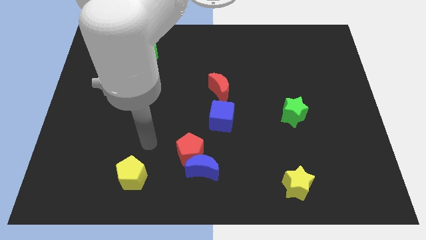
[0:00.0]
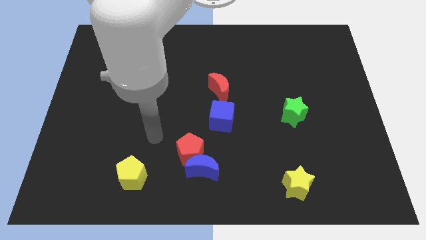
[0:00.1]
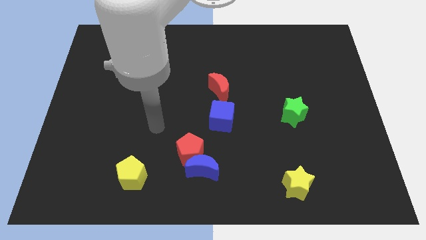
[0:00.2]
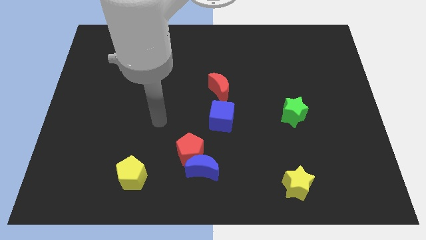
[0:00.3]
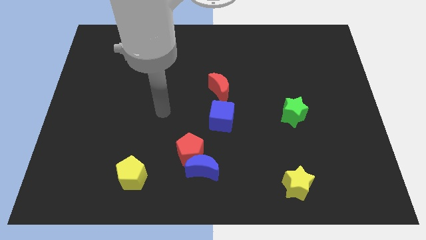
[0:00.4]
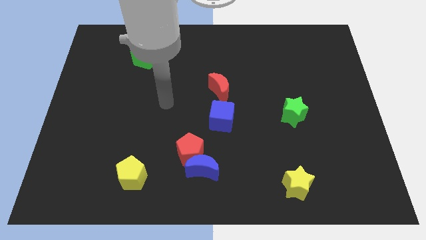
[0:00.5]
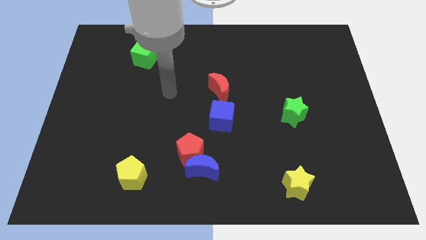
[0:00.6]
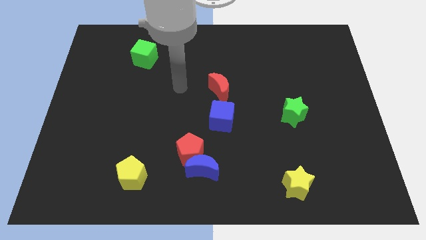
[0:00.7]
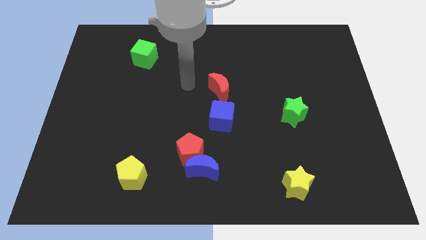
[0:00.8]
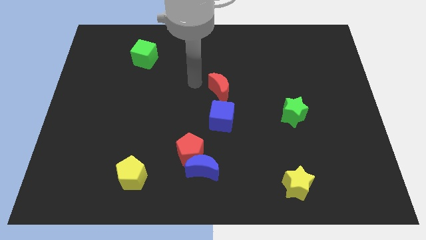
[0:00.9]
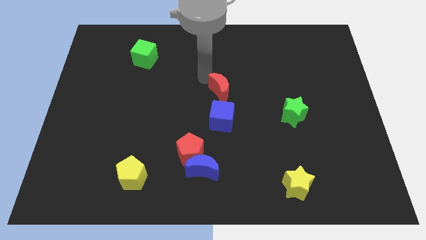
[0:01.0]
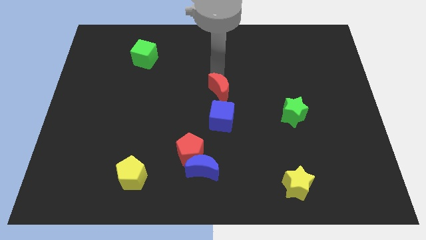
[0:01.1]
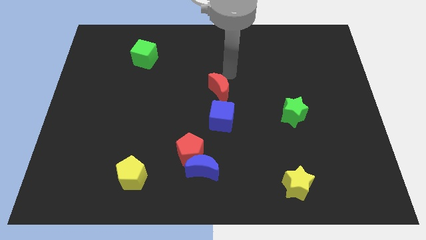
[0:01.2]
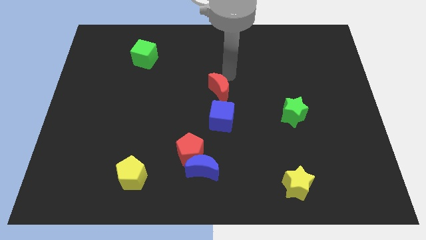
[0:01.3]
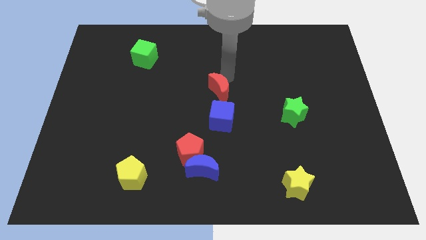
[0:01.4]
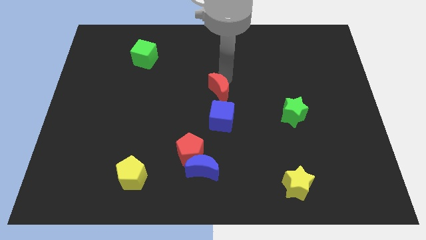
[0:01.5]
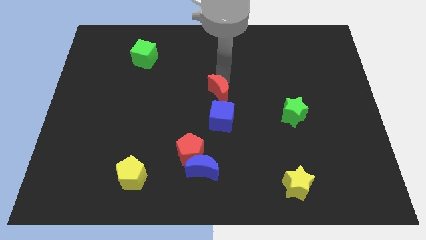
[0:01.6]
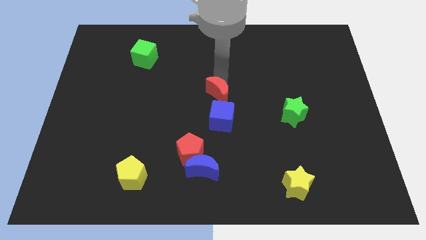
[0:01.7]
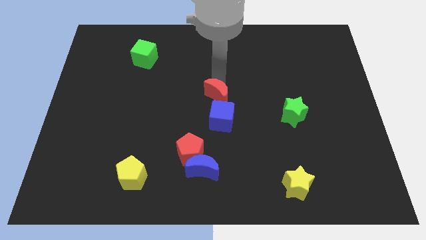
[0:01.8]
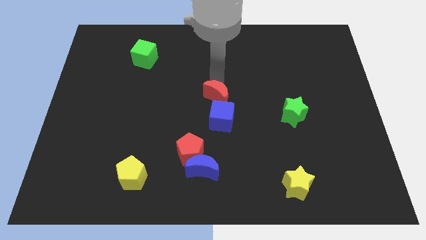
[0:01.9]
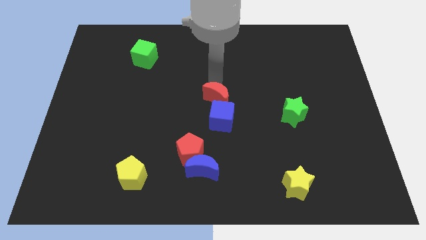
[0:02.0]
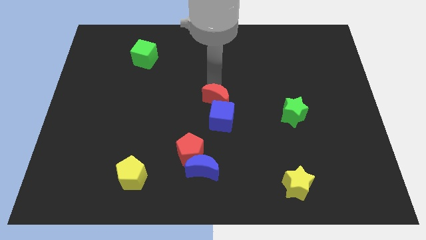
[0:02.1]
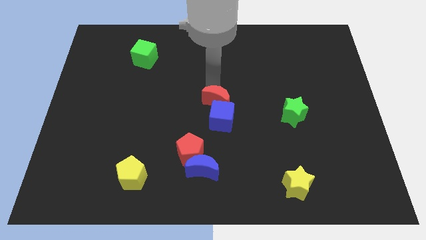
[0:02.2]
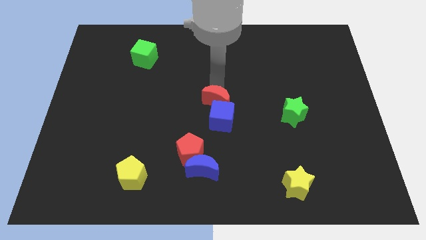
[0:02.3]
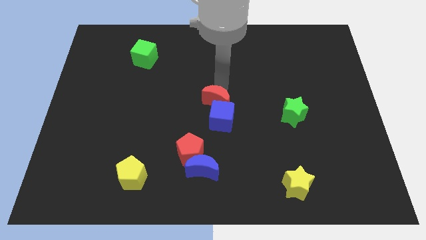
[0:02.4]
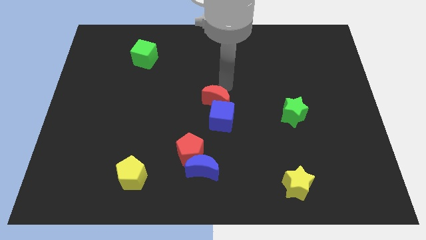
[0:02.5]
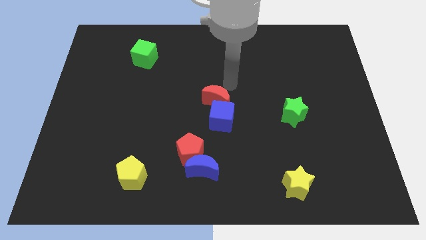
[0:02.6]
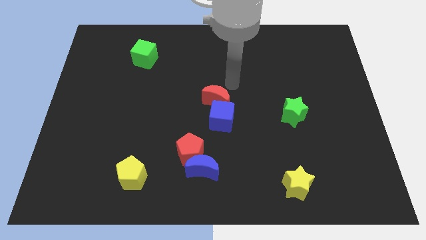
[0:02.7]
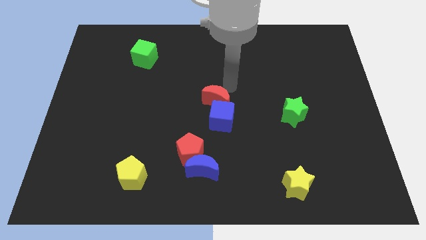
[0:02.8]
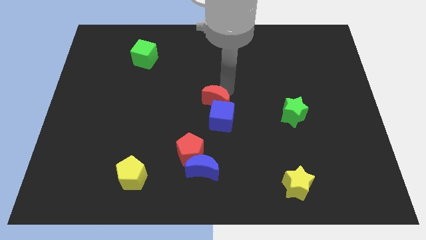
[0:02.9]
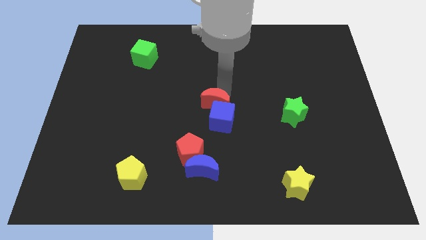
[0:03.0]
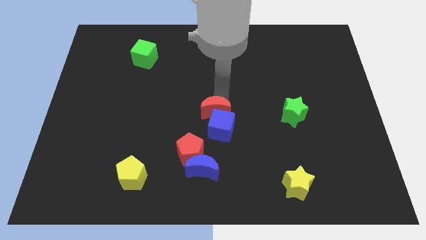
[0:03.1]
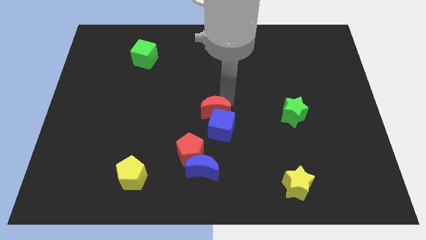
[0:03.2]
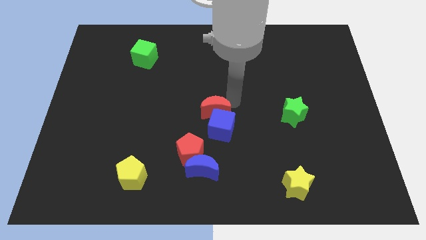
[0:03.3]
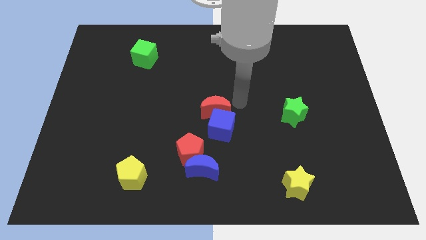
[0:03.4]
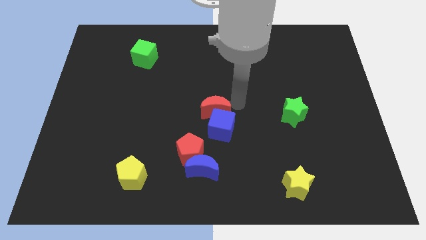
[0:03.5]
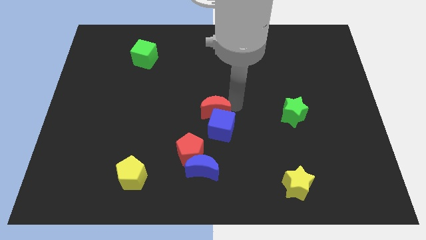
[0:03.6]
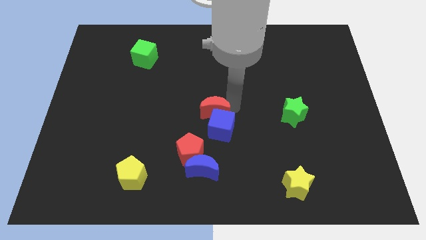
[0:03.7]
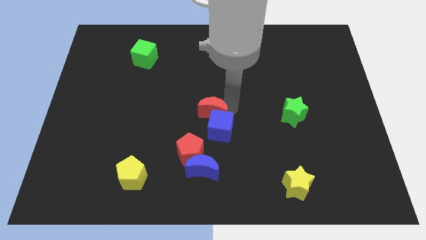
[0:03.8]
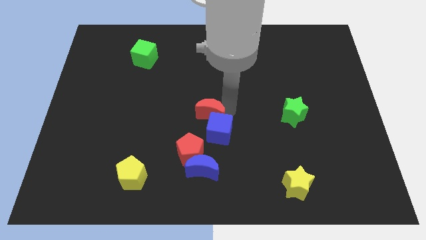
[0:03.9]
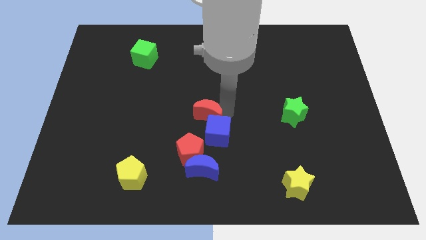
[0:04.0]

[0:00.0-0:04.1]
slightly slide the red moon down and to the left

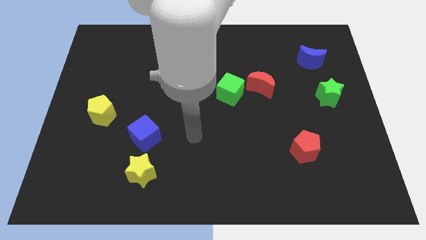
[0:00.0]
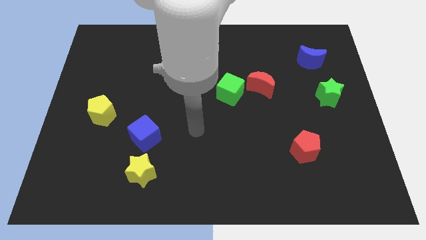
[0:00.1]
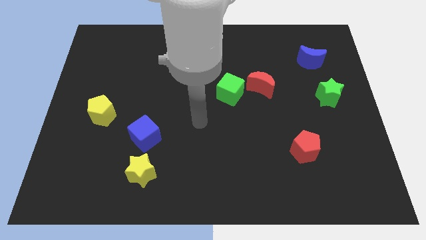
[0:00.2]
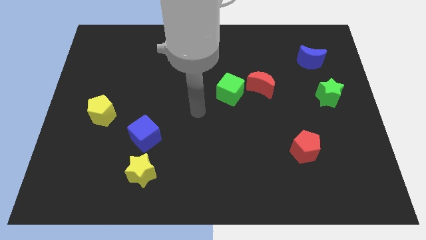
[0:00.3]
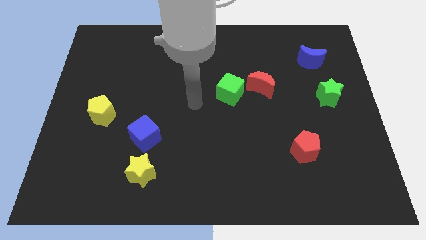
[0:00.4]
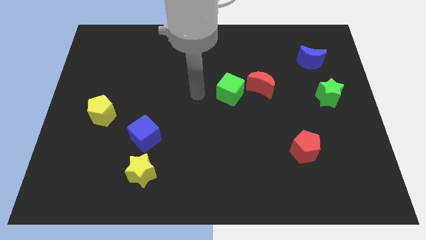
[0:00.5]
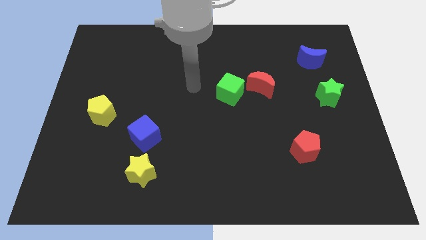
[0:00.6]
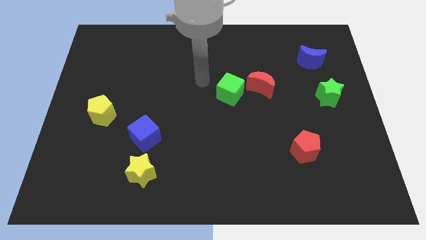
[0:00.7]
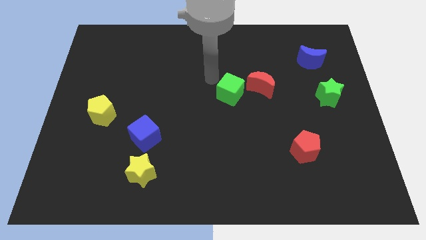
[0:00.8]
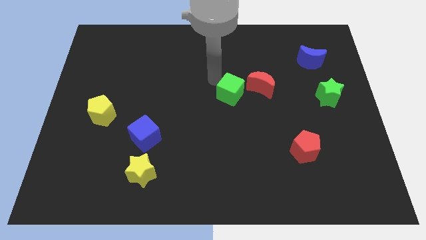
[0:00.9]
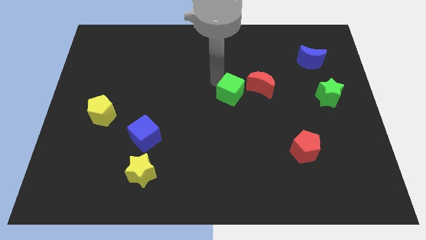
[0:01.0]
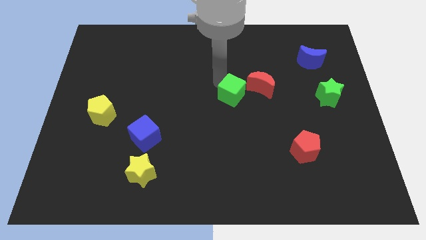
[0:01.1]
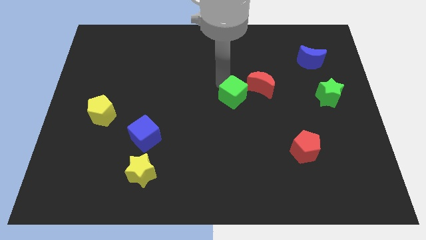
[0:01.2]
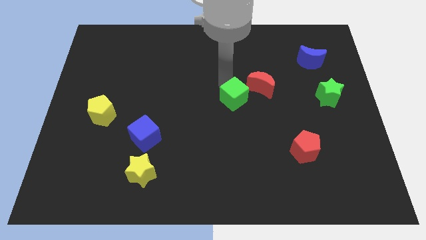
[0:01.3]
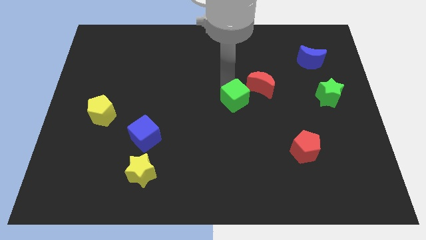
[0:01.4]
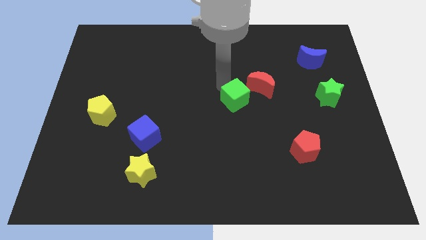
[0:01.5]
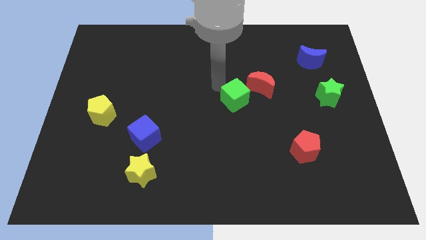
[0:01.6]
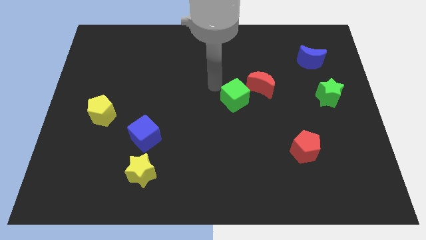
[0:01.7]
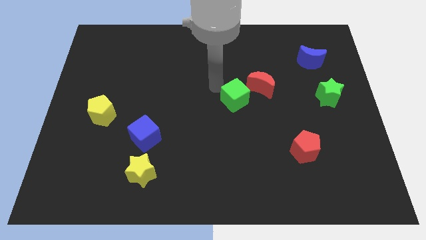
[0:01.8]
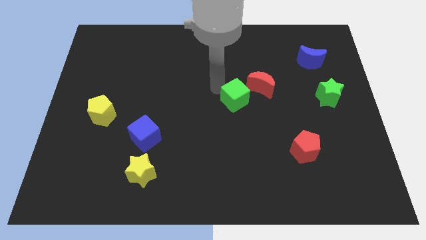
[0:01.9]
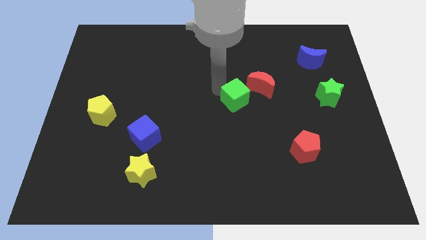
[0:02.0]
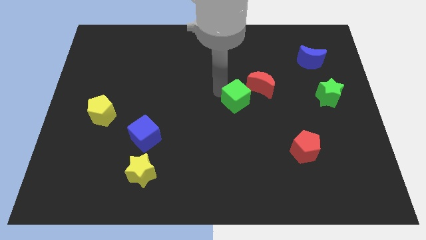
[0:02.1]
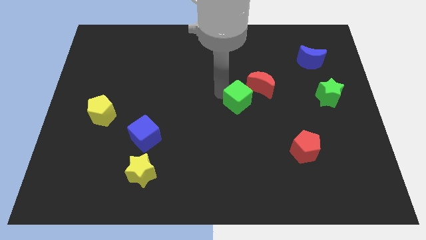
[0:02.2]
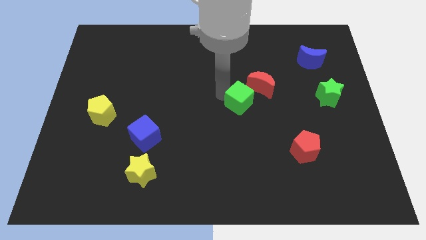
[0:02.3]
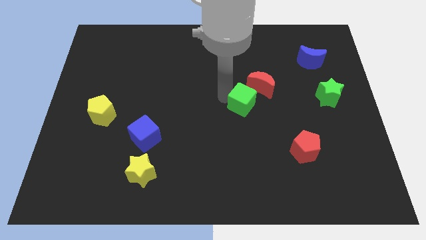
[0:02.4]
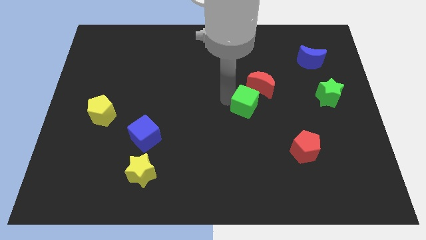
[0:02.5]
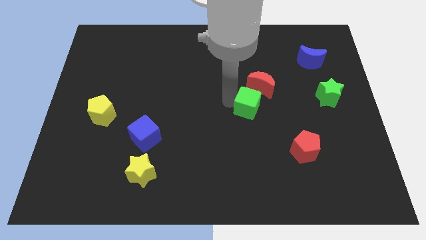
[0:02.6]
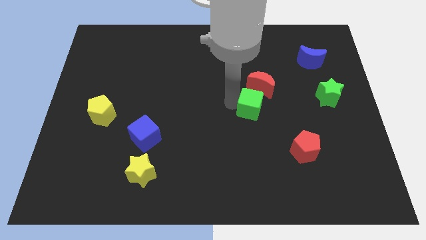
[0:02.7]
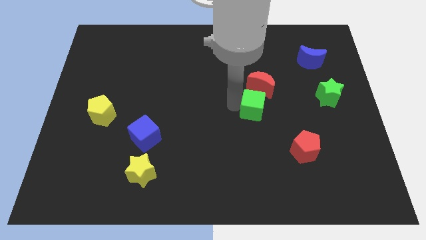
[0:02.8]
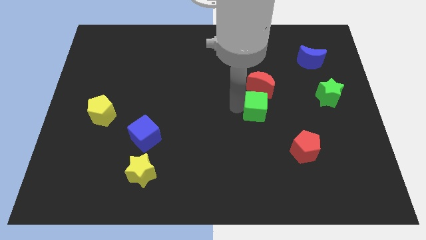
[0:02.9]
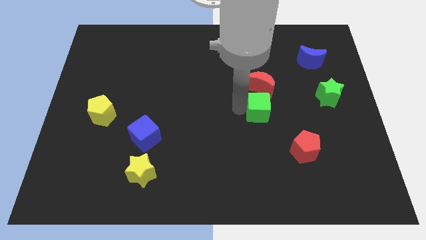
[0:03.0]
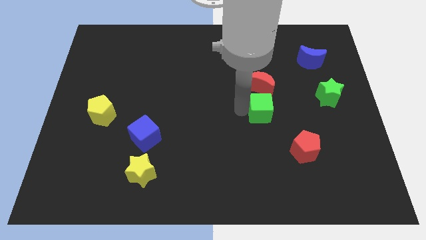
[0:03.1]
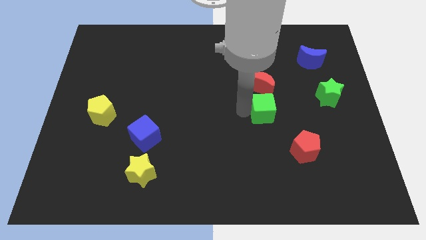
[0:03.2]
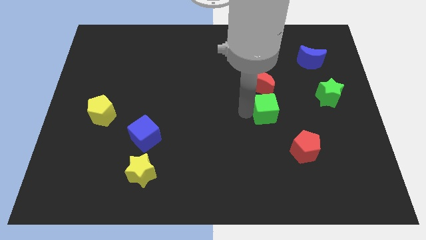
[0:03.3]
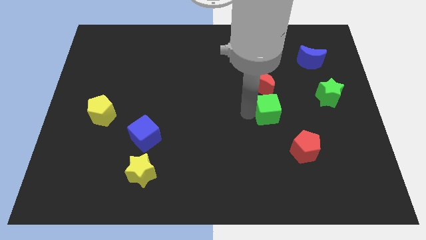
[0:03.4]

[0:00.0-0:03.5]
move the green cube to the right a bit

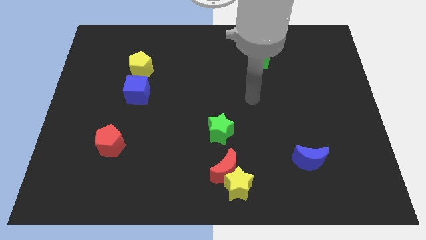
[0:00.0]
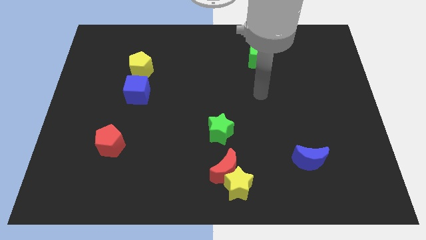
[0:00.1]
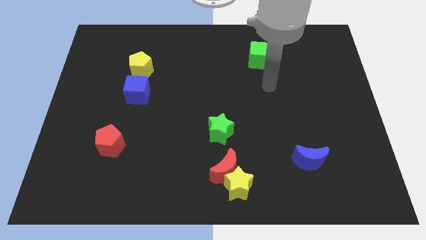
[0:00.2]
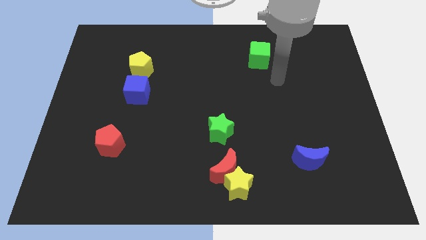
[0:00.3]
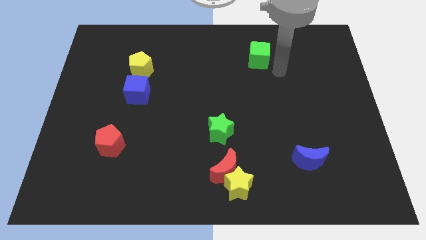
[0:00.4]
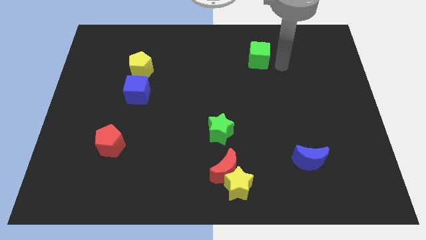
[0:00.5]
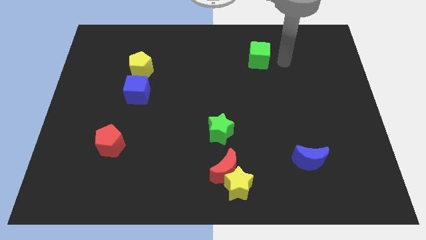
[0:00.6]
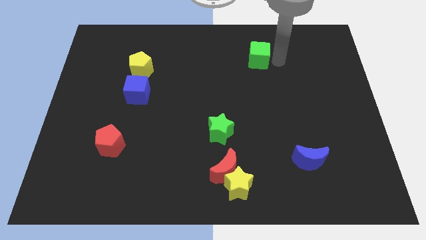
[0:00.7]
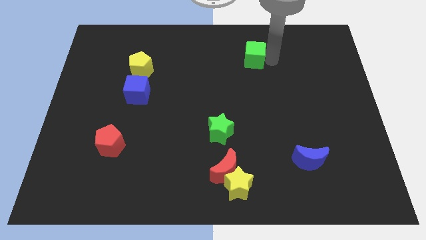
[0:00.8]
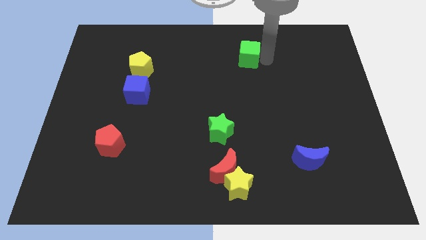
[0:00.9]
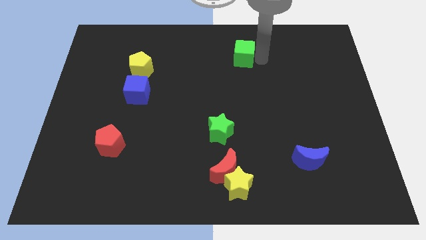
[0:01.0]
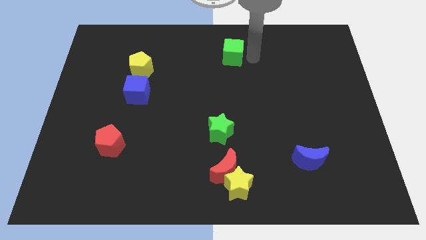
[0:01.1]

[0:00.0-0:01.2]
slightly slide the green cube to the left
